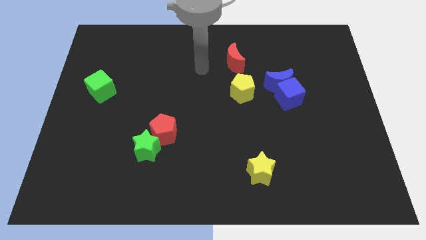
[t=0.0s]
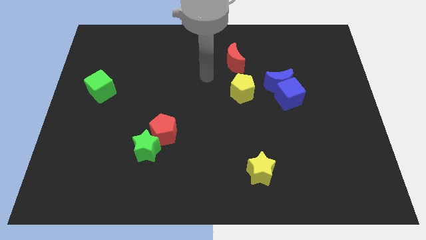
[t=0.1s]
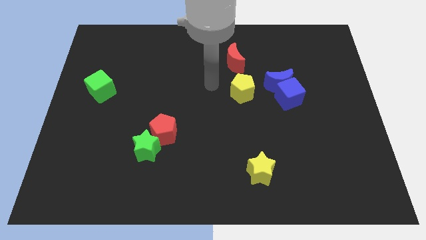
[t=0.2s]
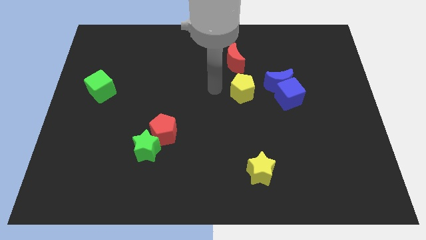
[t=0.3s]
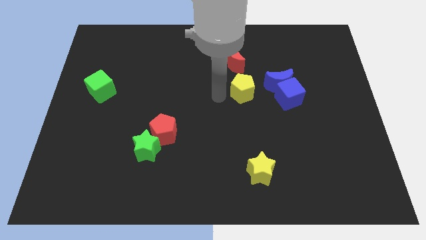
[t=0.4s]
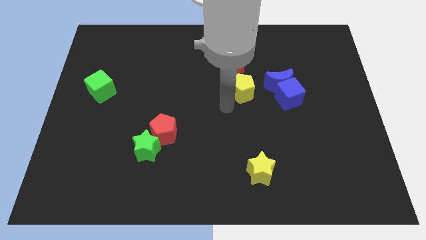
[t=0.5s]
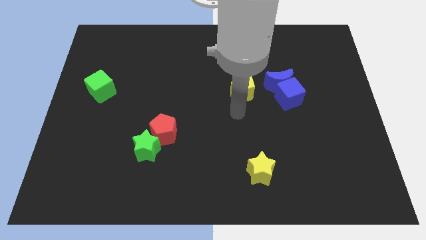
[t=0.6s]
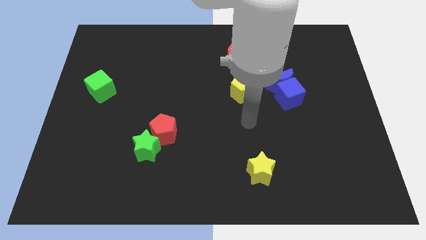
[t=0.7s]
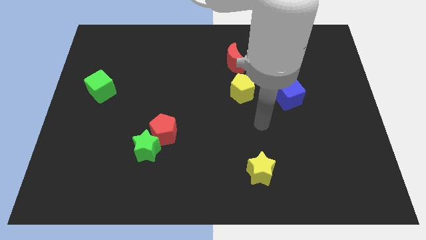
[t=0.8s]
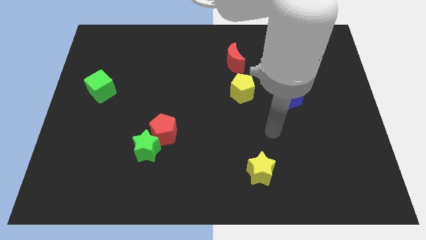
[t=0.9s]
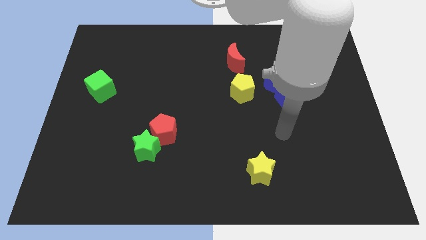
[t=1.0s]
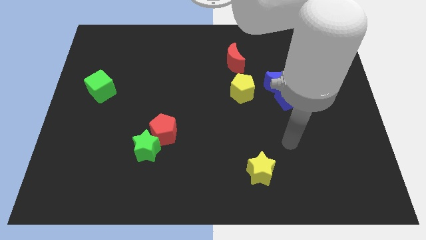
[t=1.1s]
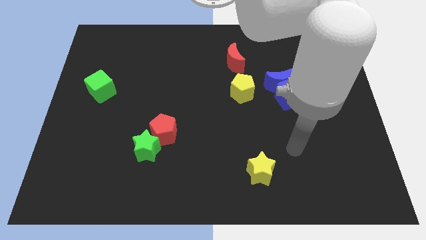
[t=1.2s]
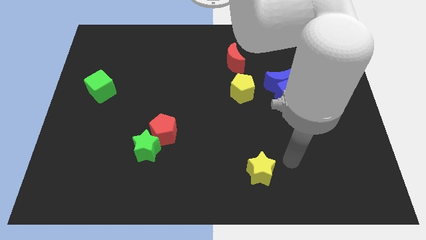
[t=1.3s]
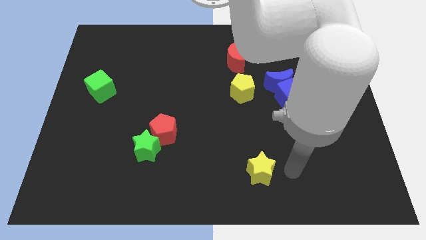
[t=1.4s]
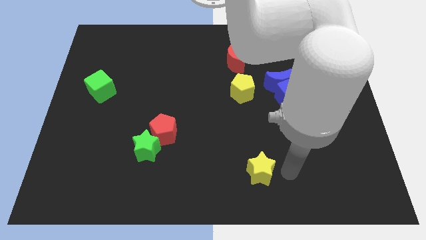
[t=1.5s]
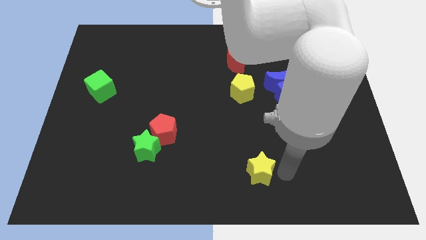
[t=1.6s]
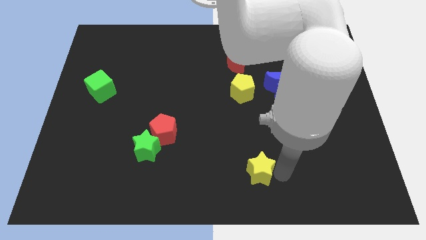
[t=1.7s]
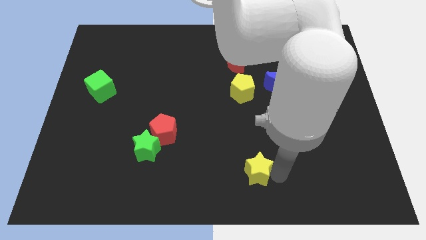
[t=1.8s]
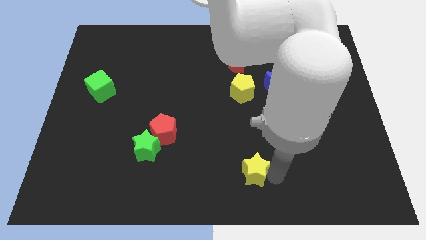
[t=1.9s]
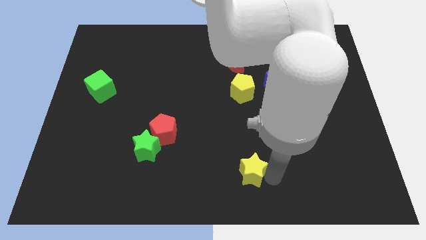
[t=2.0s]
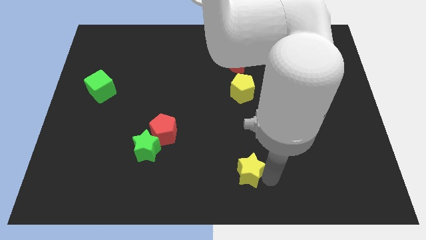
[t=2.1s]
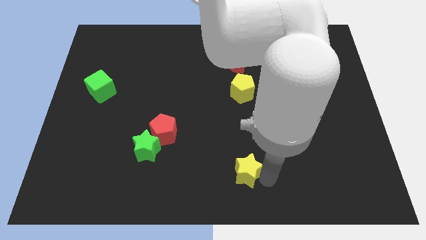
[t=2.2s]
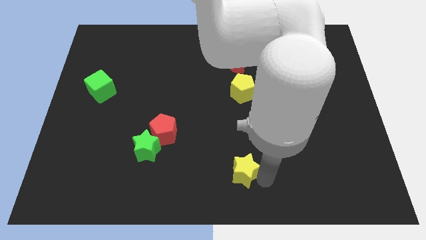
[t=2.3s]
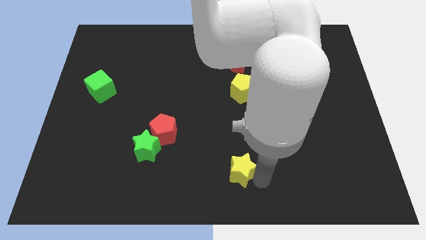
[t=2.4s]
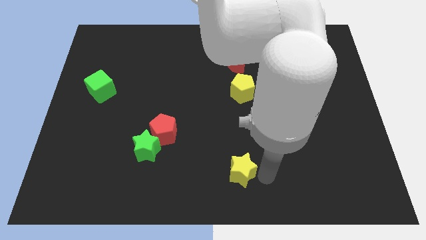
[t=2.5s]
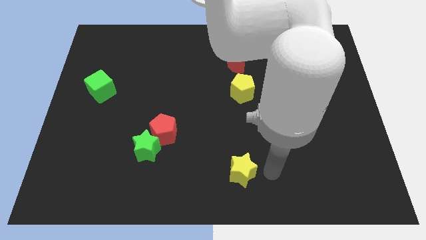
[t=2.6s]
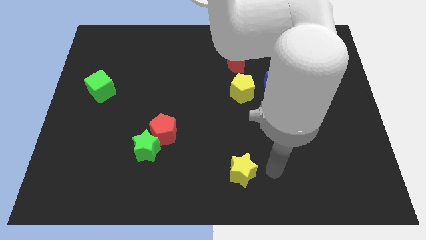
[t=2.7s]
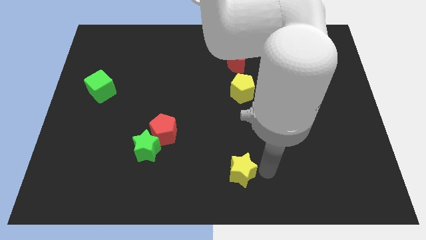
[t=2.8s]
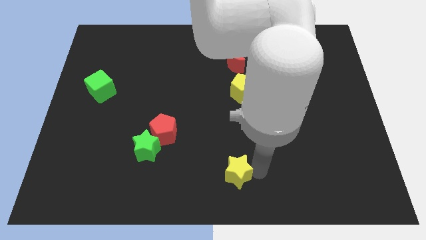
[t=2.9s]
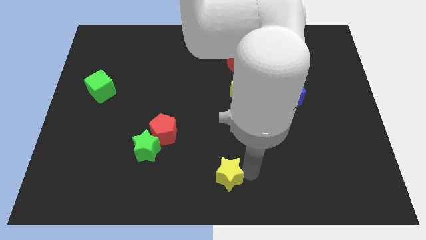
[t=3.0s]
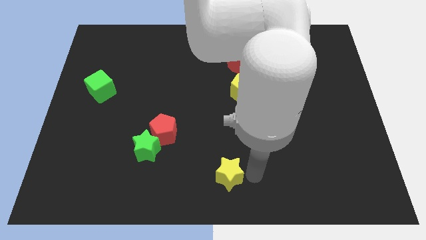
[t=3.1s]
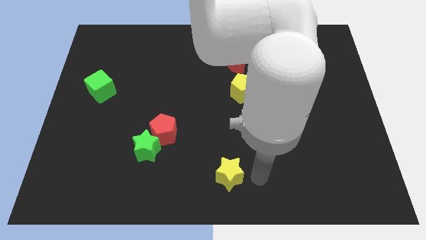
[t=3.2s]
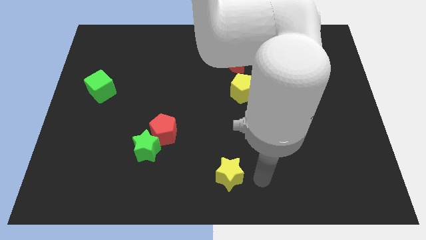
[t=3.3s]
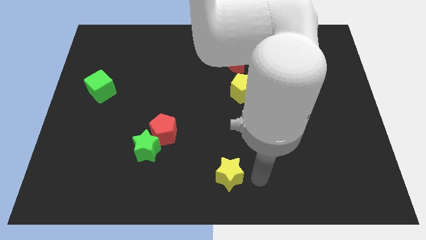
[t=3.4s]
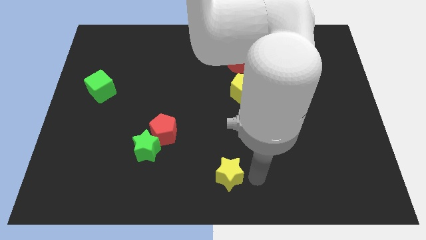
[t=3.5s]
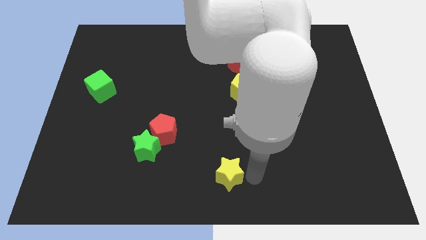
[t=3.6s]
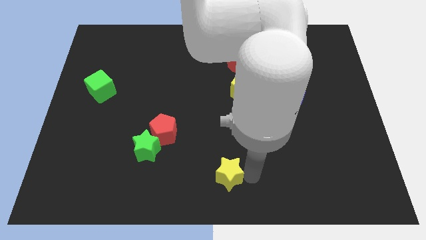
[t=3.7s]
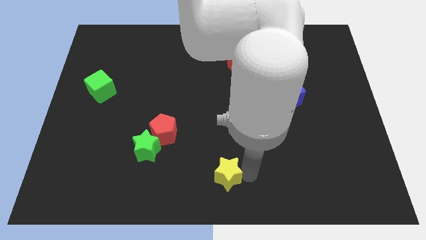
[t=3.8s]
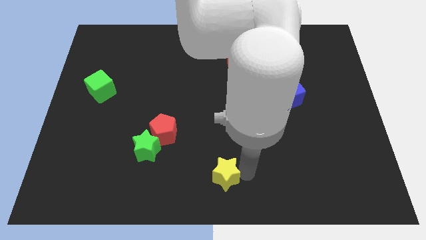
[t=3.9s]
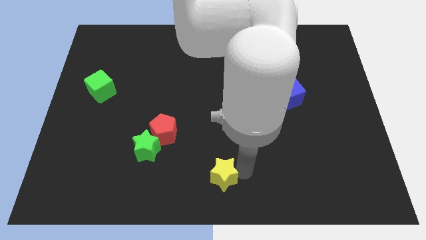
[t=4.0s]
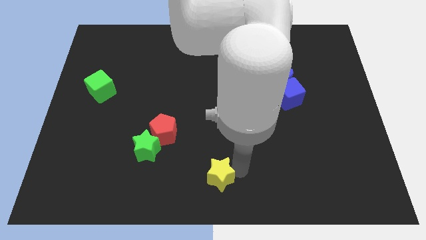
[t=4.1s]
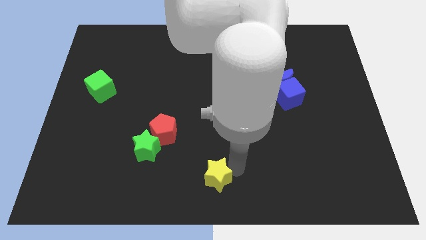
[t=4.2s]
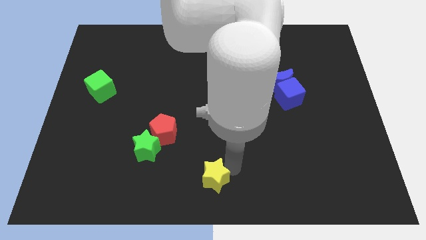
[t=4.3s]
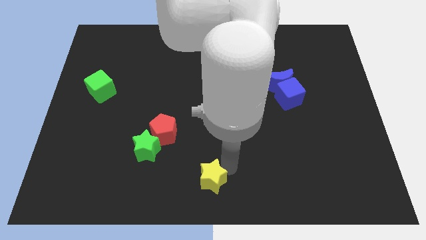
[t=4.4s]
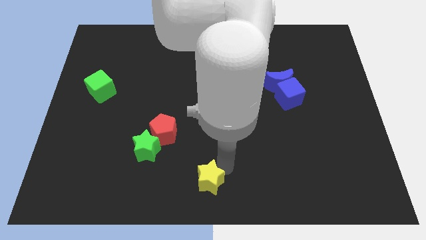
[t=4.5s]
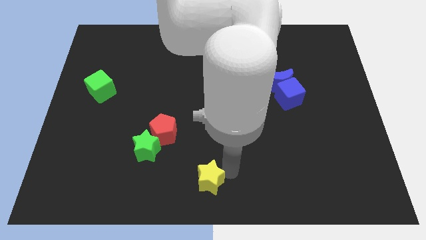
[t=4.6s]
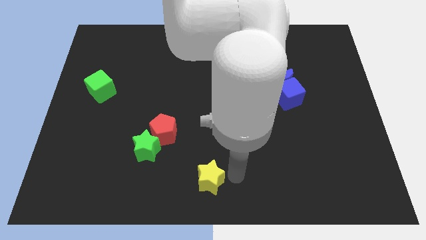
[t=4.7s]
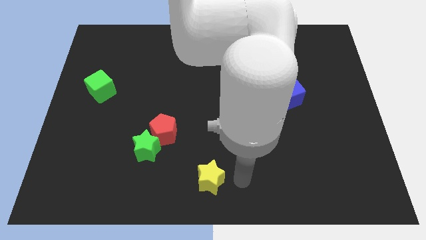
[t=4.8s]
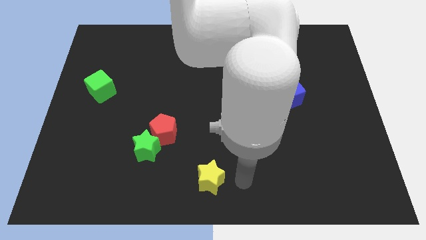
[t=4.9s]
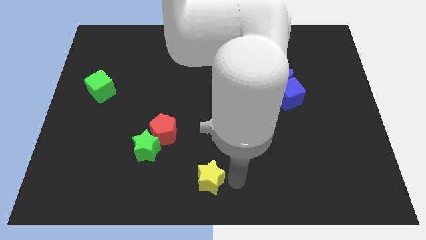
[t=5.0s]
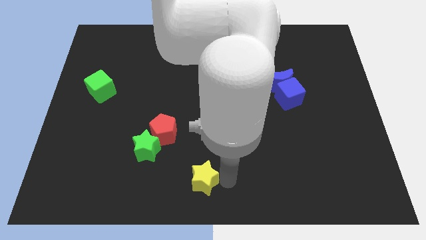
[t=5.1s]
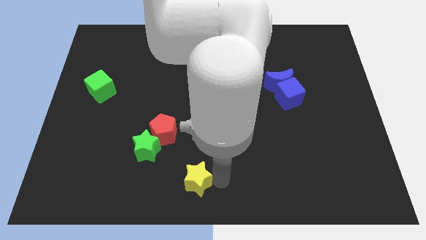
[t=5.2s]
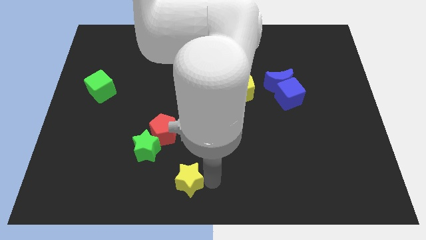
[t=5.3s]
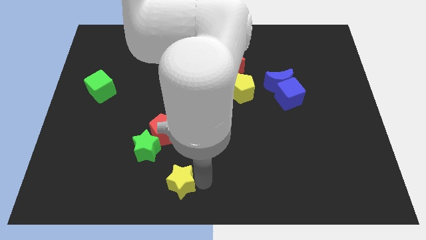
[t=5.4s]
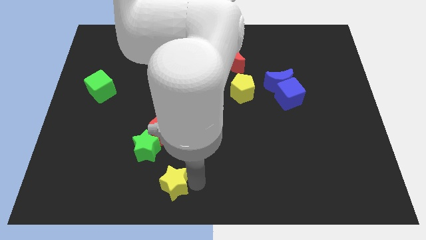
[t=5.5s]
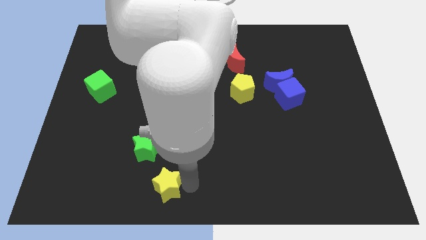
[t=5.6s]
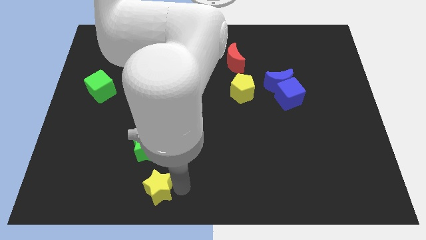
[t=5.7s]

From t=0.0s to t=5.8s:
move the yellow star left

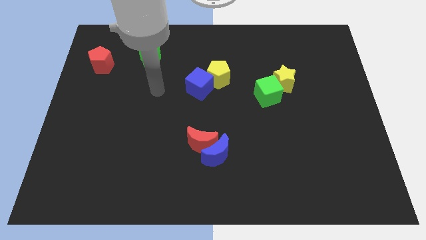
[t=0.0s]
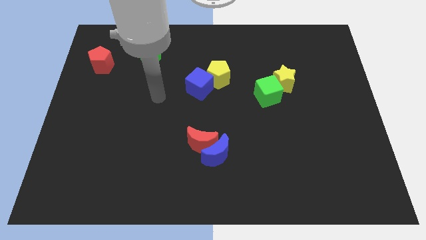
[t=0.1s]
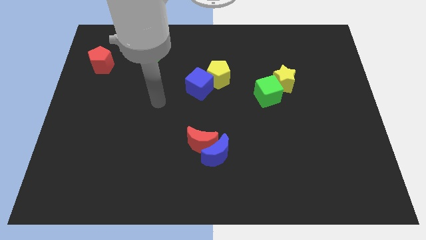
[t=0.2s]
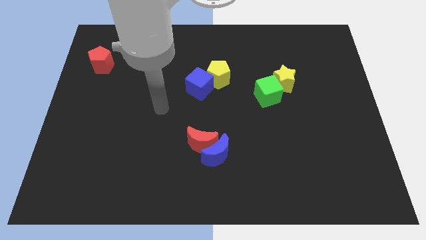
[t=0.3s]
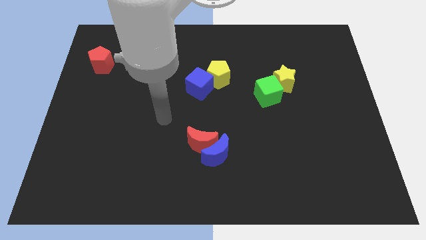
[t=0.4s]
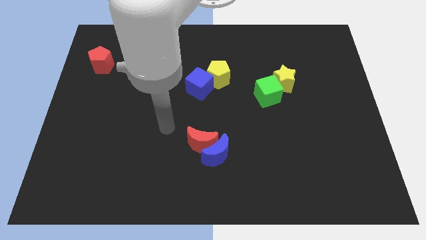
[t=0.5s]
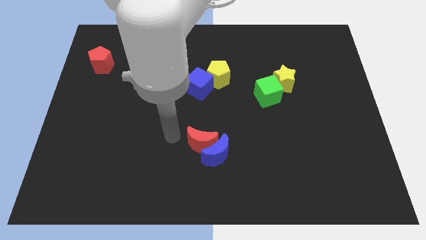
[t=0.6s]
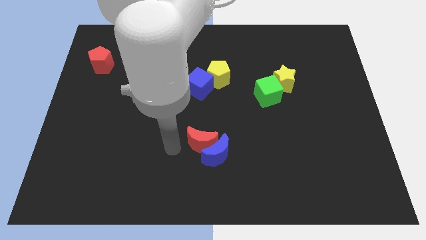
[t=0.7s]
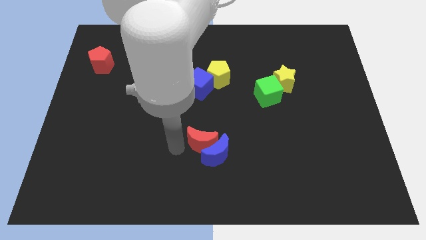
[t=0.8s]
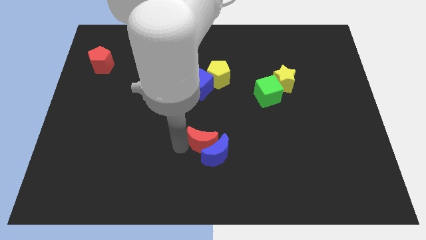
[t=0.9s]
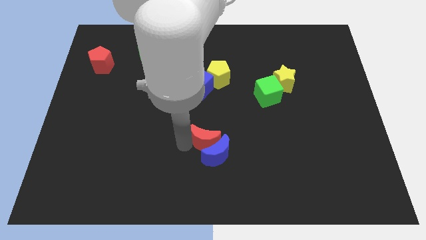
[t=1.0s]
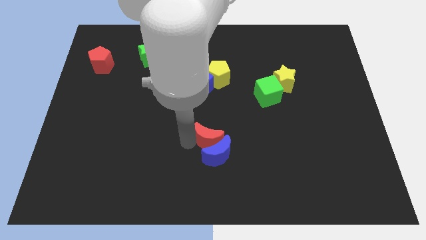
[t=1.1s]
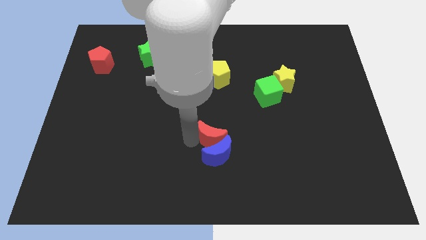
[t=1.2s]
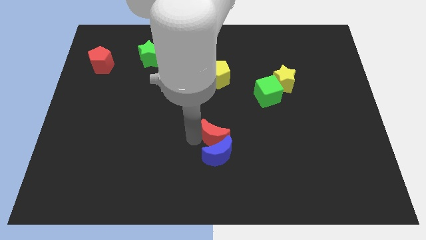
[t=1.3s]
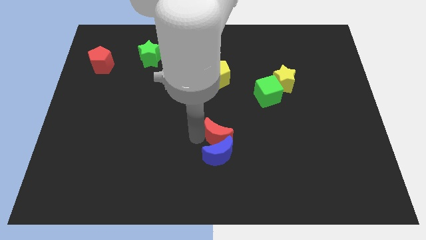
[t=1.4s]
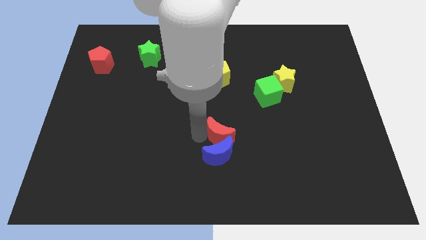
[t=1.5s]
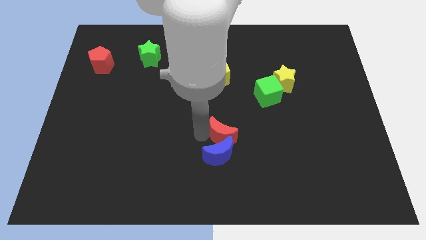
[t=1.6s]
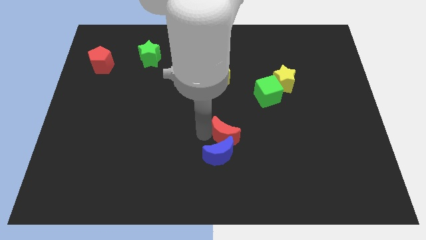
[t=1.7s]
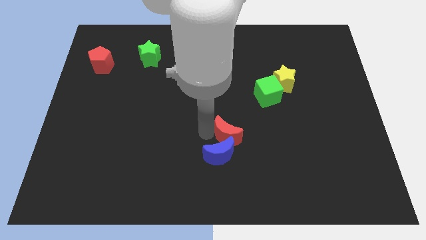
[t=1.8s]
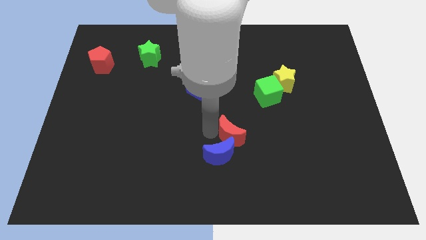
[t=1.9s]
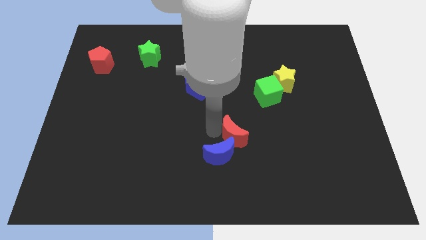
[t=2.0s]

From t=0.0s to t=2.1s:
slightly push the red moon to the right
